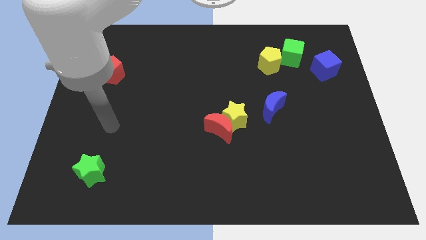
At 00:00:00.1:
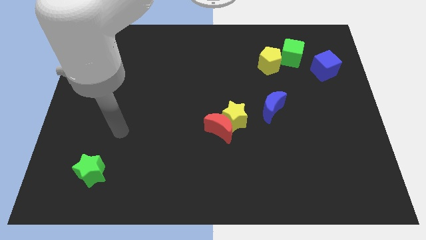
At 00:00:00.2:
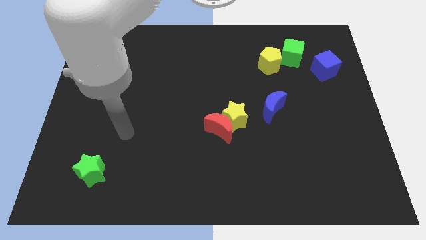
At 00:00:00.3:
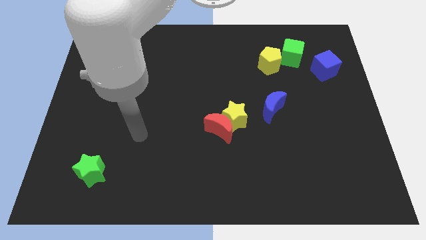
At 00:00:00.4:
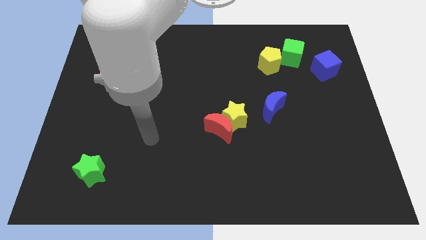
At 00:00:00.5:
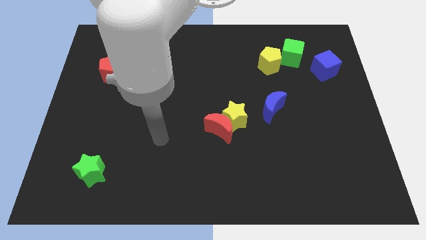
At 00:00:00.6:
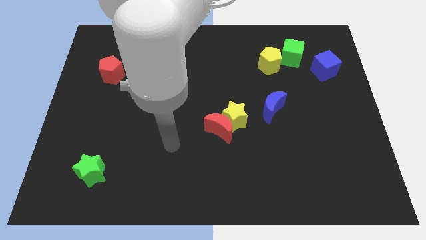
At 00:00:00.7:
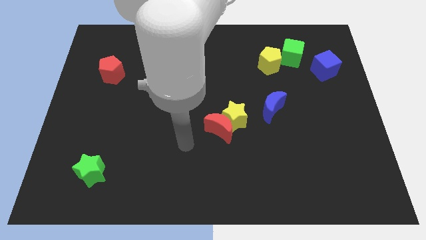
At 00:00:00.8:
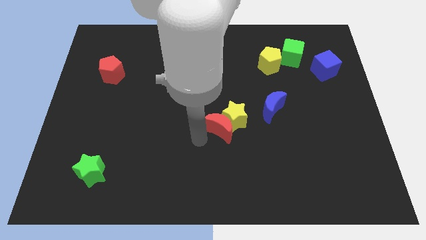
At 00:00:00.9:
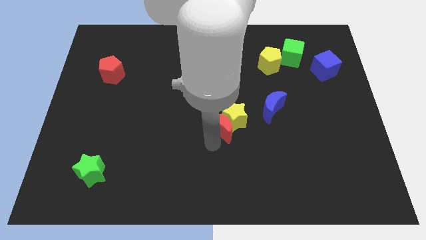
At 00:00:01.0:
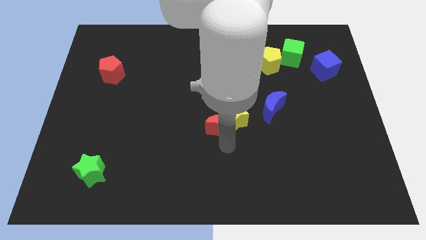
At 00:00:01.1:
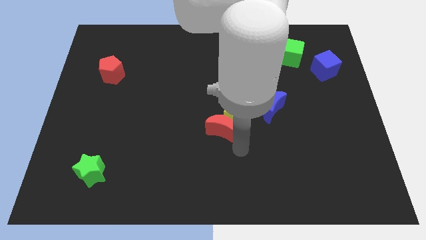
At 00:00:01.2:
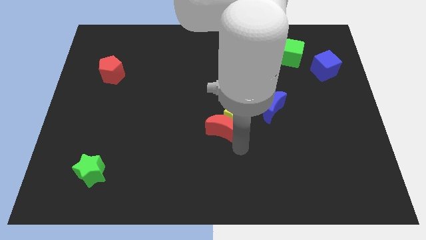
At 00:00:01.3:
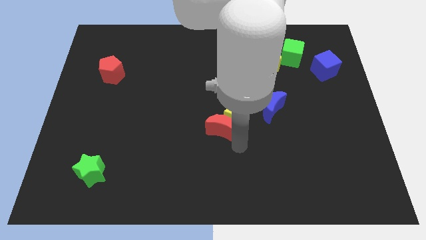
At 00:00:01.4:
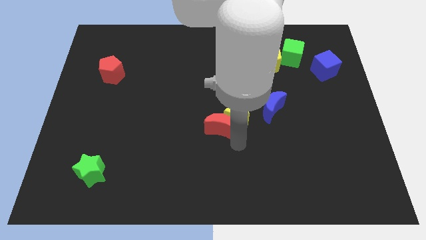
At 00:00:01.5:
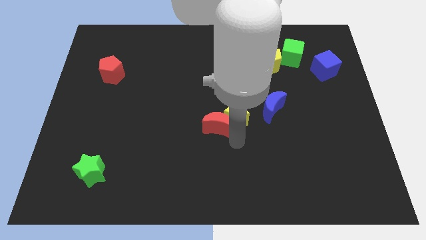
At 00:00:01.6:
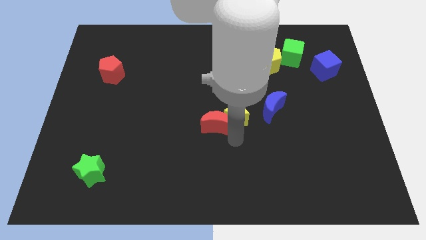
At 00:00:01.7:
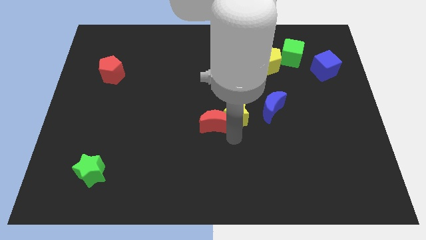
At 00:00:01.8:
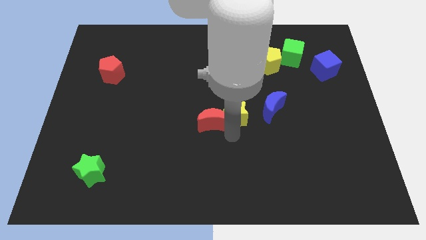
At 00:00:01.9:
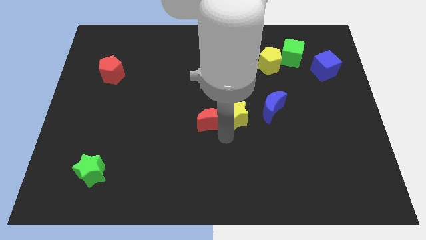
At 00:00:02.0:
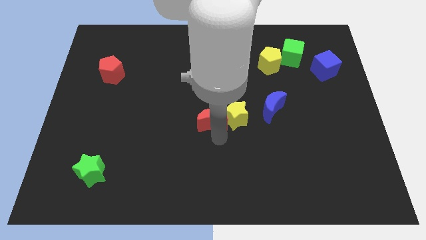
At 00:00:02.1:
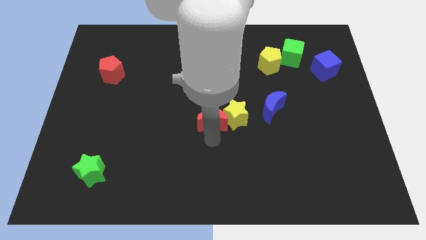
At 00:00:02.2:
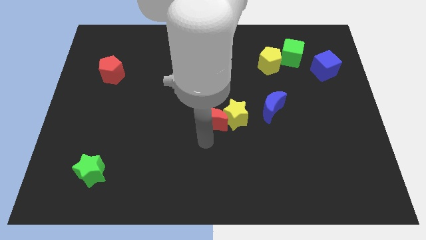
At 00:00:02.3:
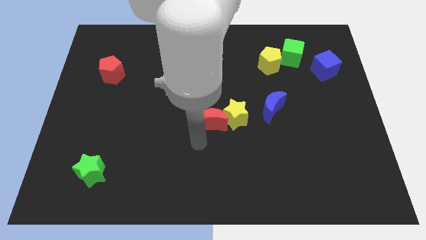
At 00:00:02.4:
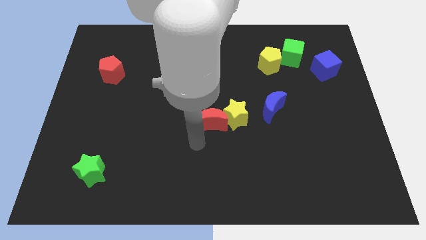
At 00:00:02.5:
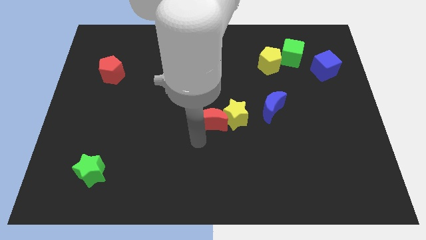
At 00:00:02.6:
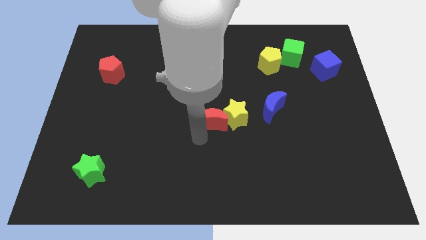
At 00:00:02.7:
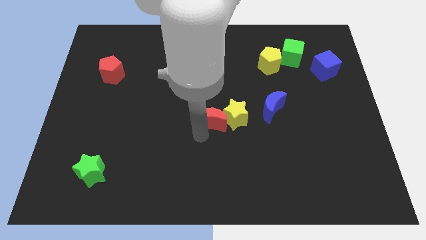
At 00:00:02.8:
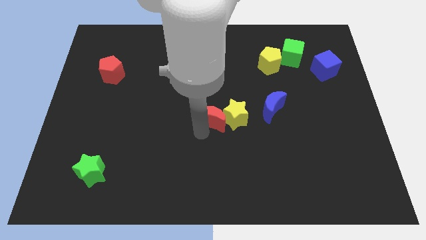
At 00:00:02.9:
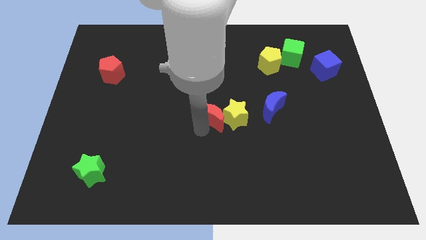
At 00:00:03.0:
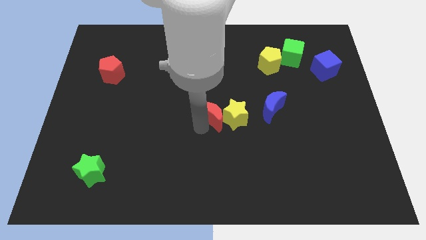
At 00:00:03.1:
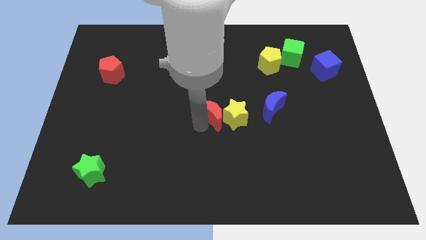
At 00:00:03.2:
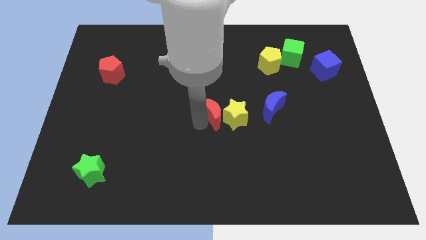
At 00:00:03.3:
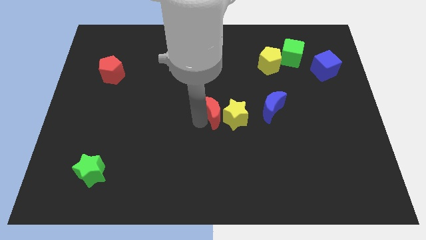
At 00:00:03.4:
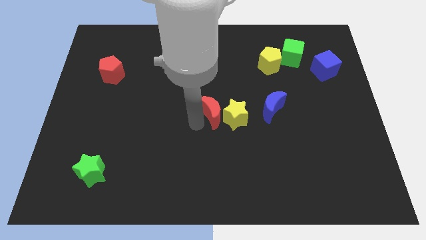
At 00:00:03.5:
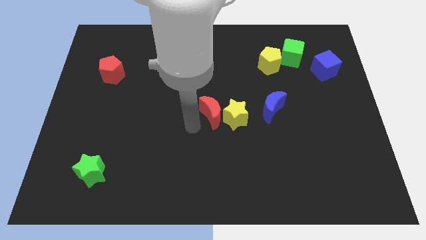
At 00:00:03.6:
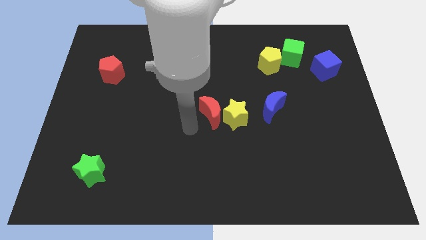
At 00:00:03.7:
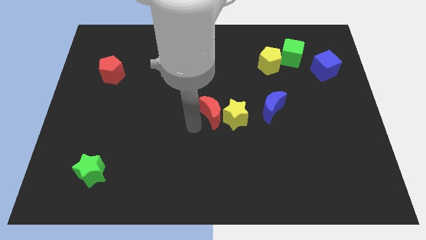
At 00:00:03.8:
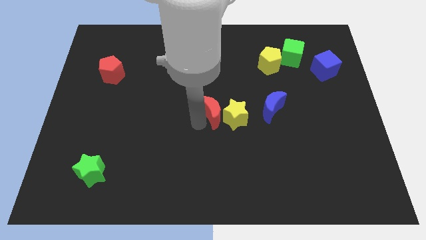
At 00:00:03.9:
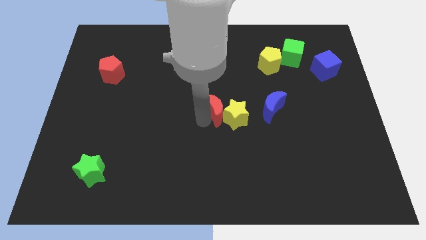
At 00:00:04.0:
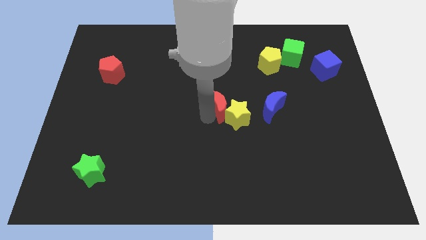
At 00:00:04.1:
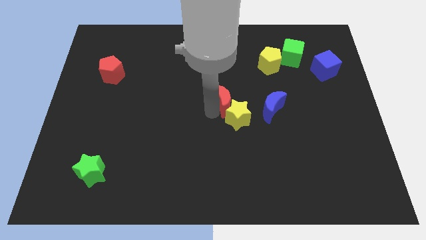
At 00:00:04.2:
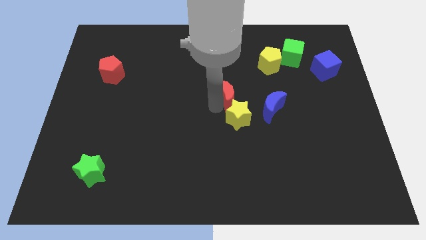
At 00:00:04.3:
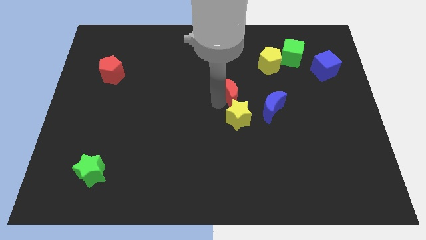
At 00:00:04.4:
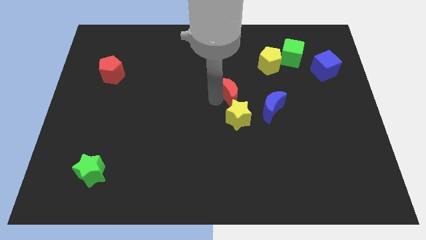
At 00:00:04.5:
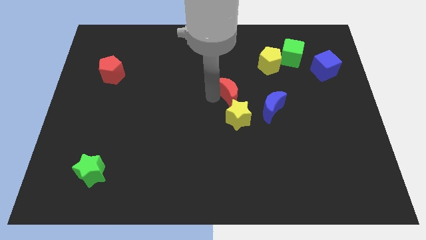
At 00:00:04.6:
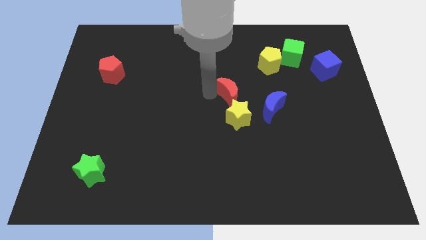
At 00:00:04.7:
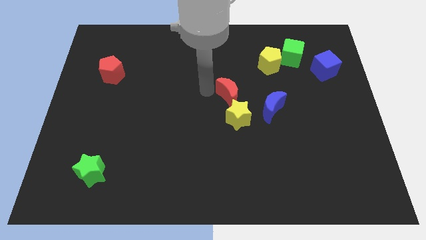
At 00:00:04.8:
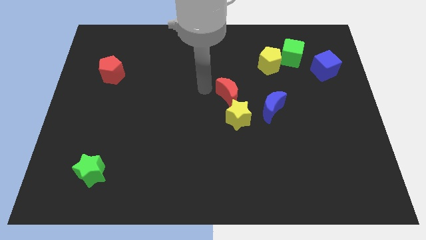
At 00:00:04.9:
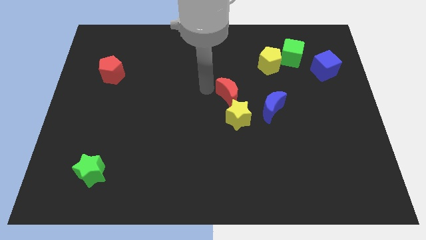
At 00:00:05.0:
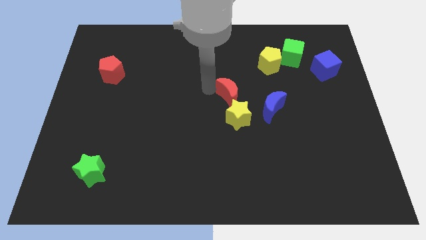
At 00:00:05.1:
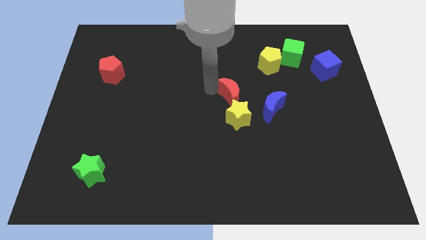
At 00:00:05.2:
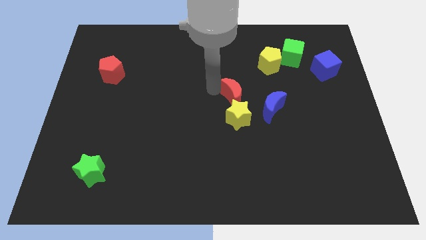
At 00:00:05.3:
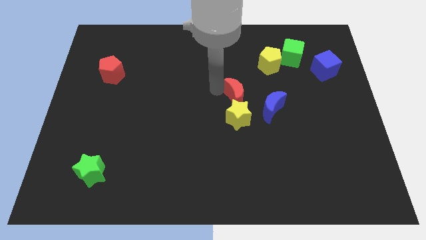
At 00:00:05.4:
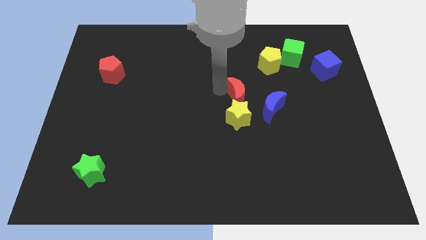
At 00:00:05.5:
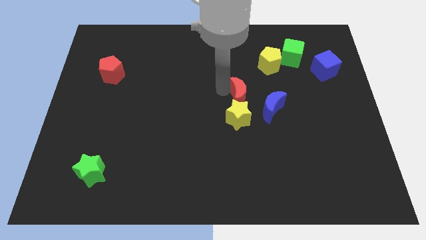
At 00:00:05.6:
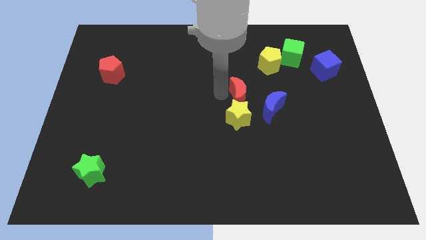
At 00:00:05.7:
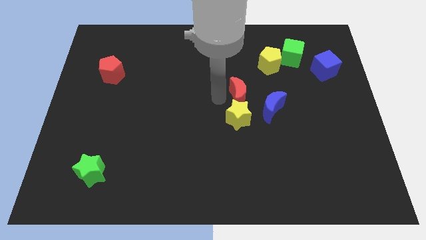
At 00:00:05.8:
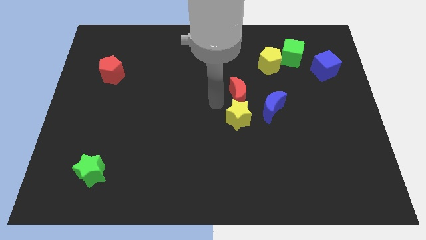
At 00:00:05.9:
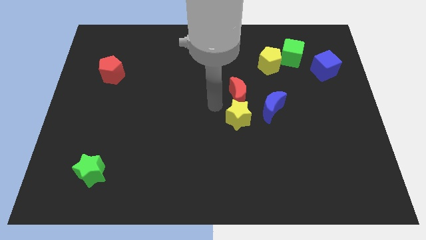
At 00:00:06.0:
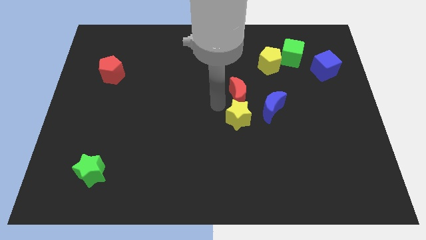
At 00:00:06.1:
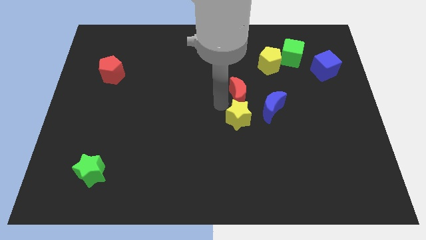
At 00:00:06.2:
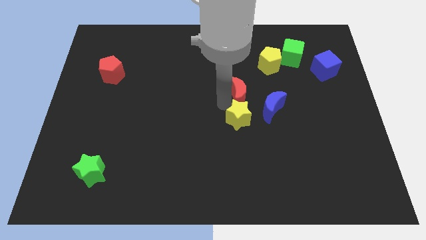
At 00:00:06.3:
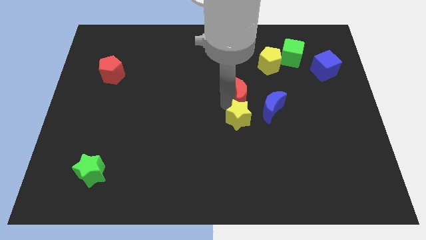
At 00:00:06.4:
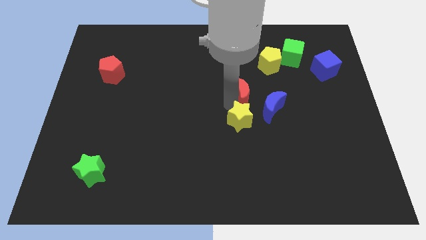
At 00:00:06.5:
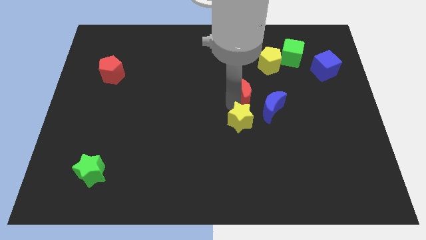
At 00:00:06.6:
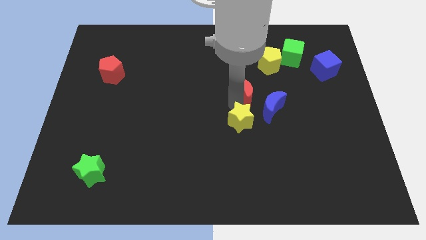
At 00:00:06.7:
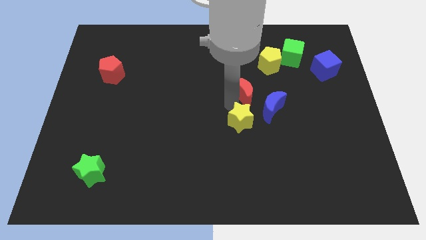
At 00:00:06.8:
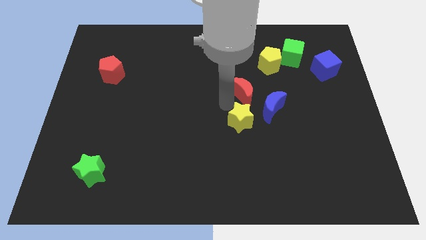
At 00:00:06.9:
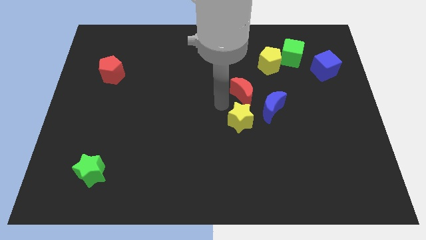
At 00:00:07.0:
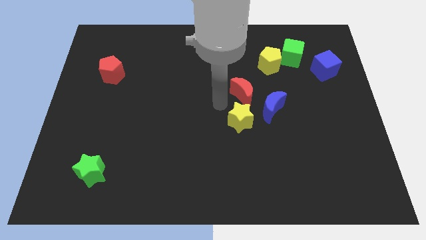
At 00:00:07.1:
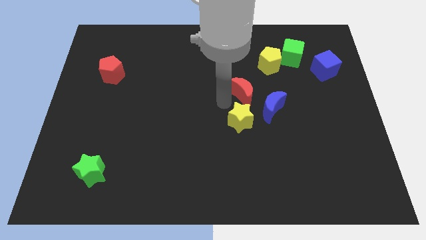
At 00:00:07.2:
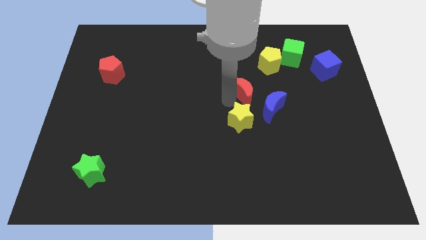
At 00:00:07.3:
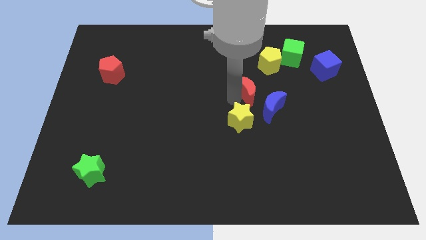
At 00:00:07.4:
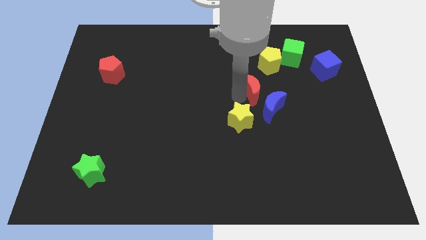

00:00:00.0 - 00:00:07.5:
slide the red moon to the top of the blue moon
